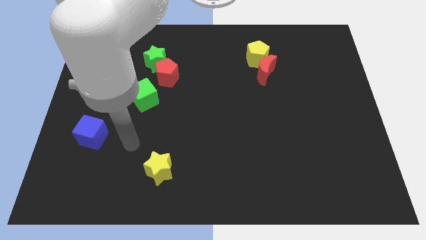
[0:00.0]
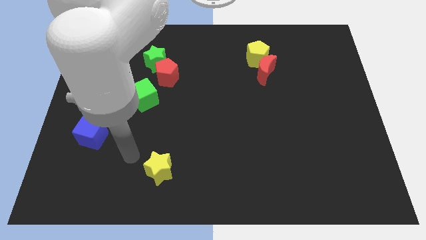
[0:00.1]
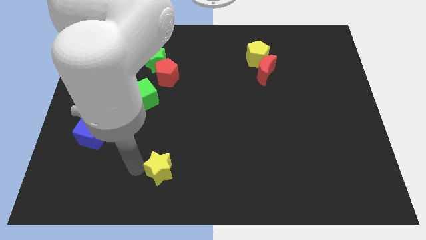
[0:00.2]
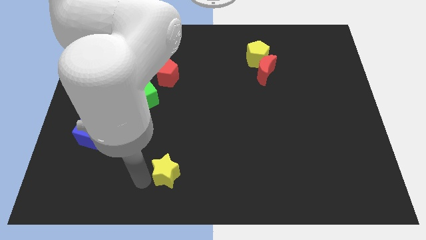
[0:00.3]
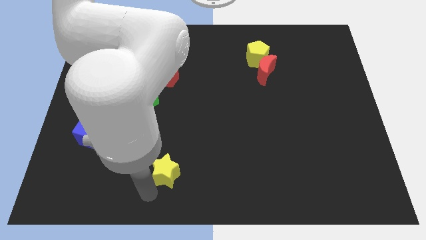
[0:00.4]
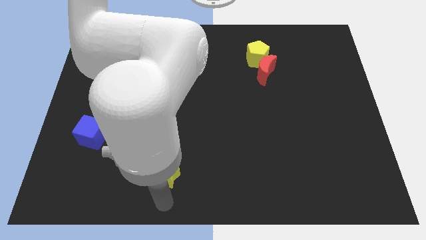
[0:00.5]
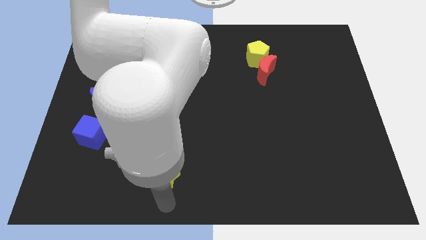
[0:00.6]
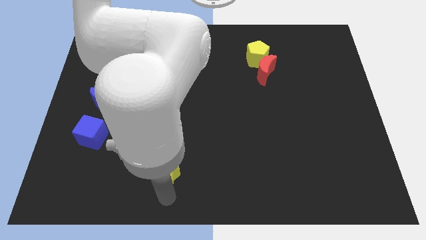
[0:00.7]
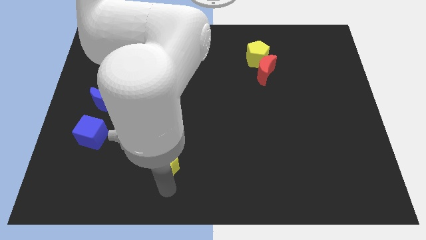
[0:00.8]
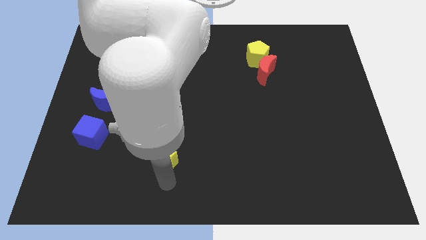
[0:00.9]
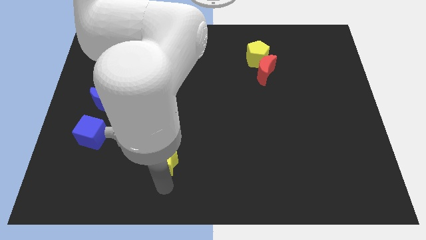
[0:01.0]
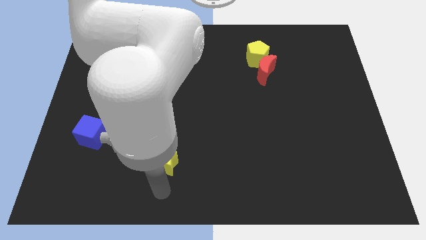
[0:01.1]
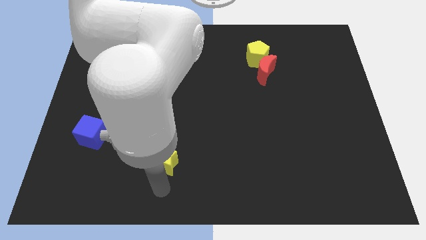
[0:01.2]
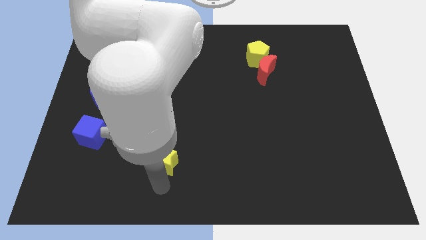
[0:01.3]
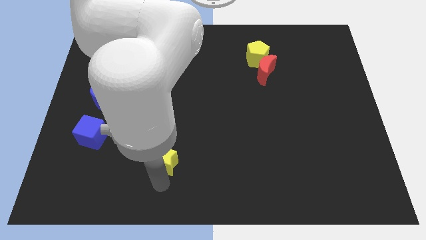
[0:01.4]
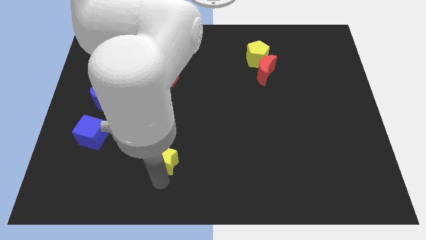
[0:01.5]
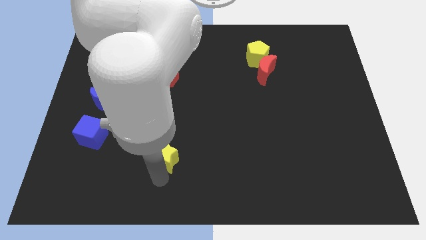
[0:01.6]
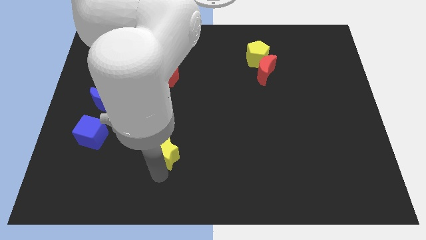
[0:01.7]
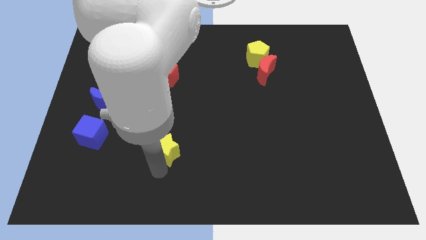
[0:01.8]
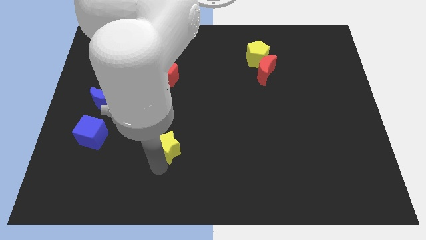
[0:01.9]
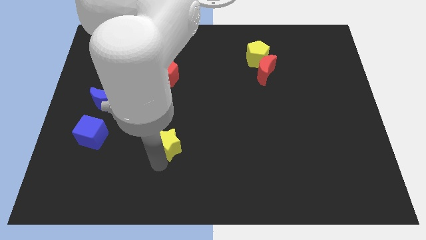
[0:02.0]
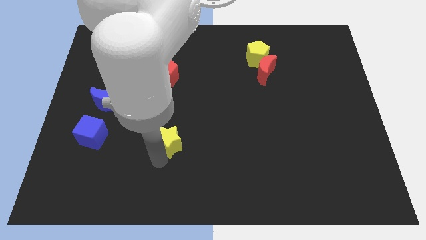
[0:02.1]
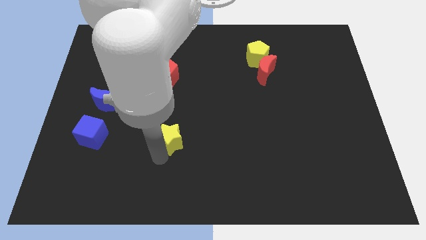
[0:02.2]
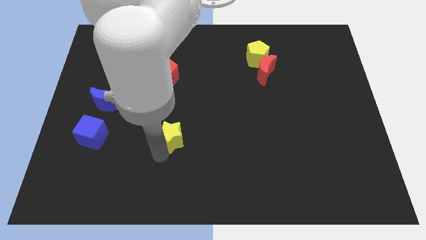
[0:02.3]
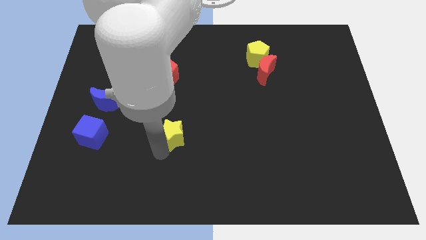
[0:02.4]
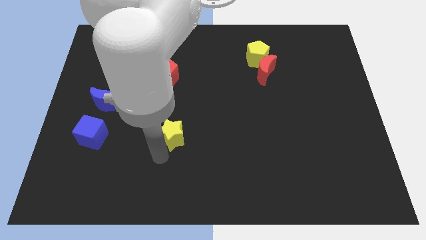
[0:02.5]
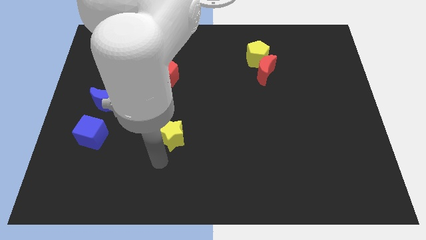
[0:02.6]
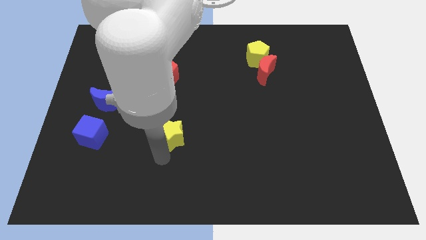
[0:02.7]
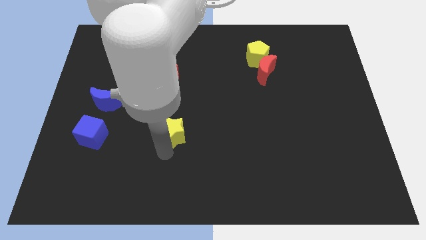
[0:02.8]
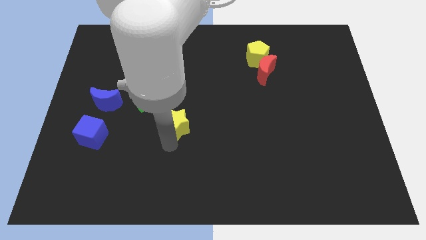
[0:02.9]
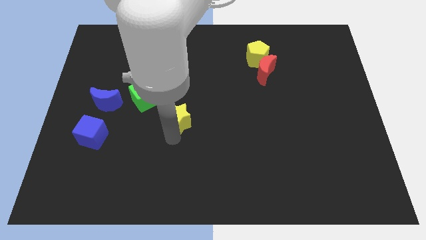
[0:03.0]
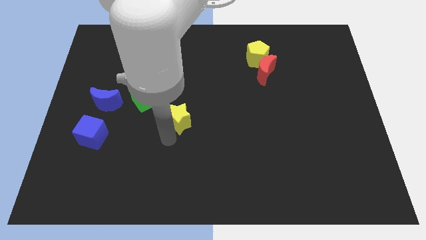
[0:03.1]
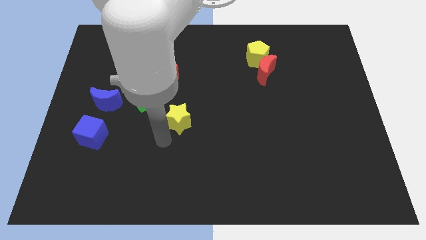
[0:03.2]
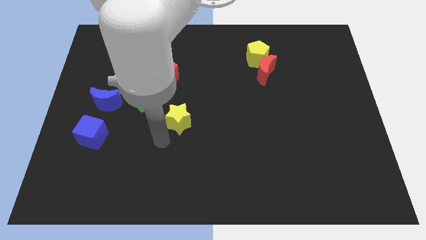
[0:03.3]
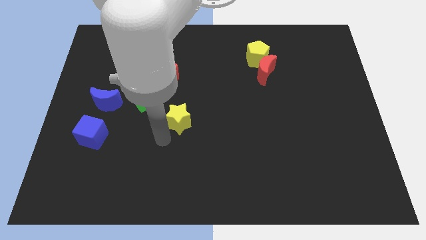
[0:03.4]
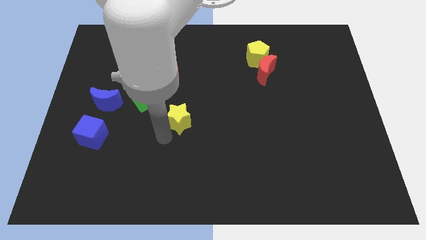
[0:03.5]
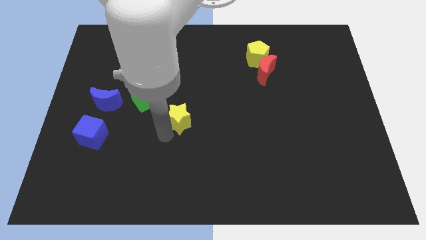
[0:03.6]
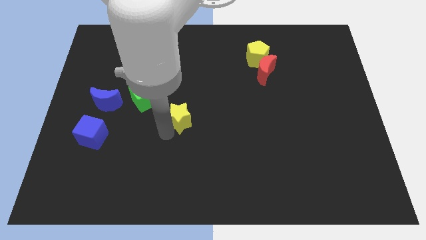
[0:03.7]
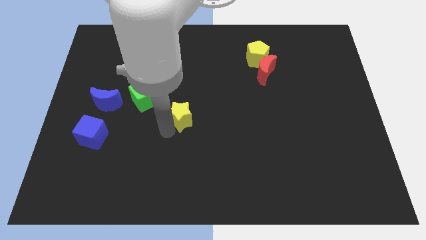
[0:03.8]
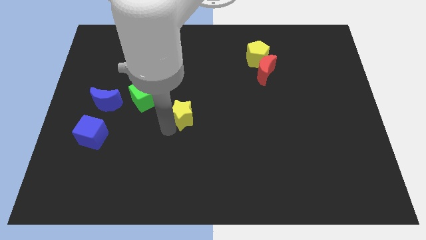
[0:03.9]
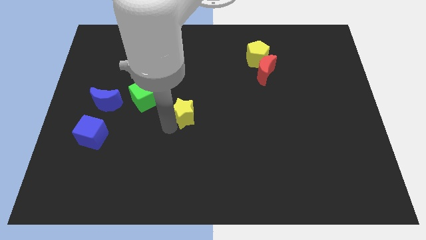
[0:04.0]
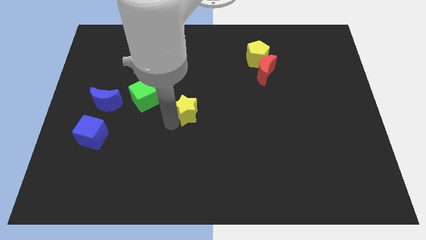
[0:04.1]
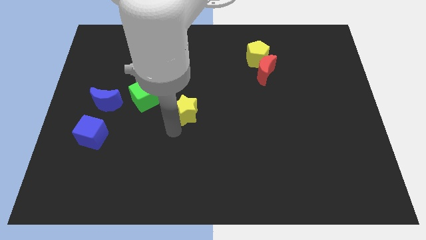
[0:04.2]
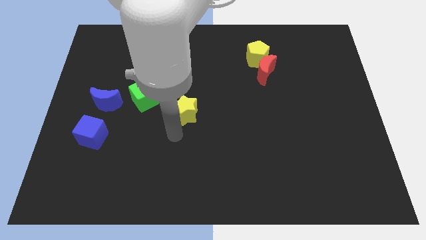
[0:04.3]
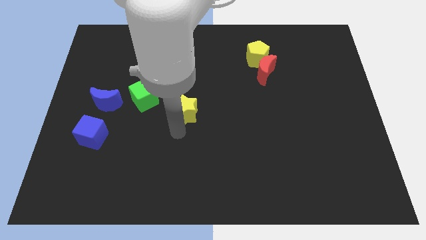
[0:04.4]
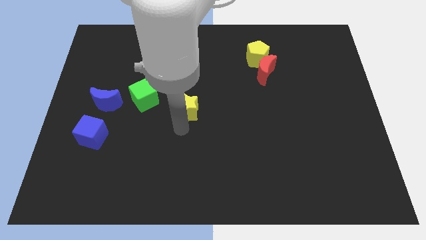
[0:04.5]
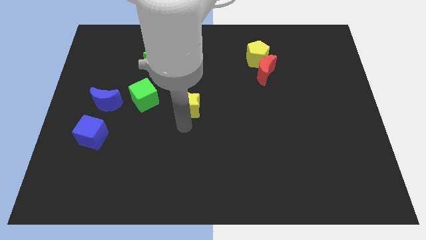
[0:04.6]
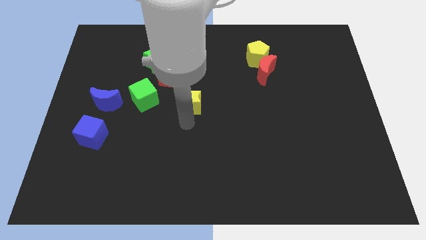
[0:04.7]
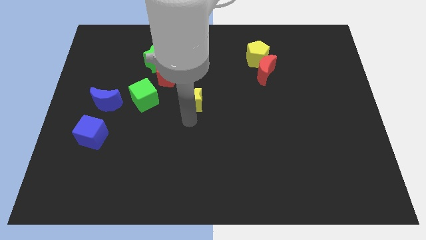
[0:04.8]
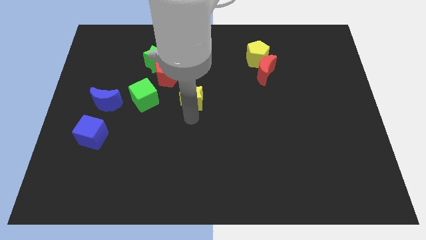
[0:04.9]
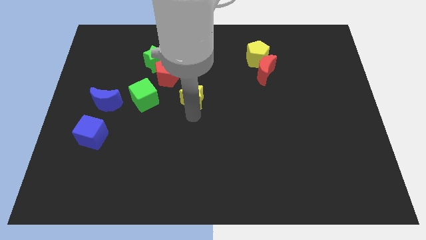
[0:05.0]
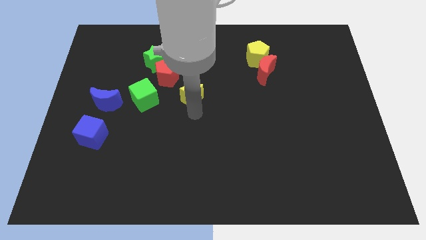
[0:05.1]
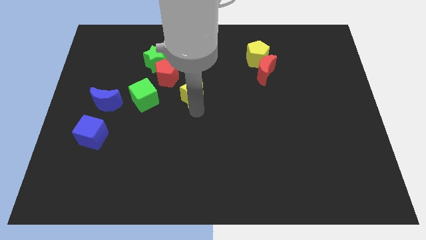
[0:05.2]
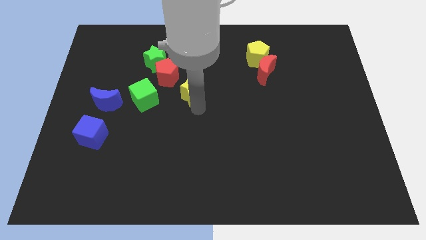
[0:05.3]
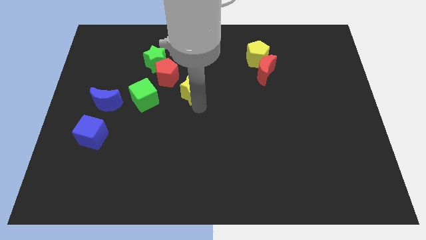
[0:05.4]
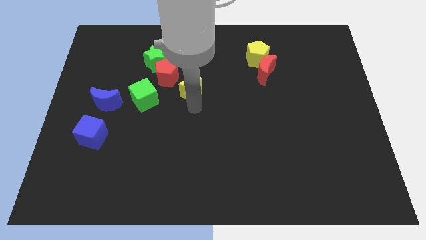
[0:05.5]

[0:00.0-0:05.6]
move the yellow star up

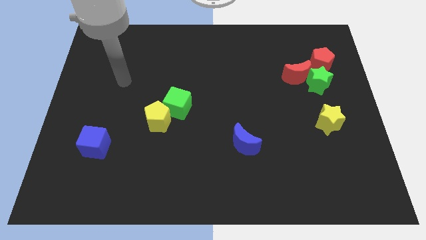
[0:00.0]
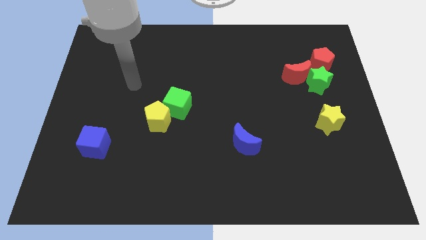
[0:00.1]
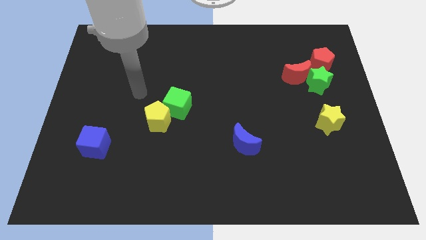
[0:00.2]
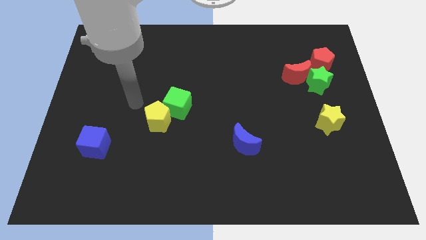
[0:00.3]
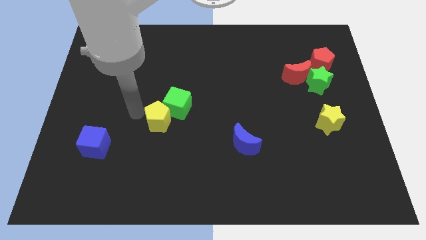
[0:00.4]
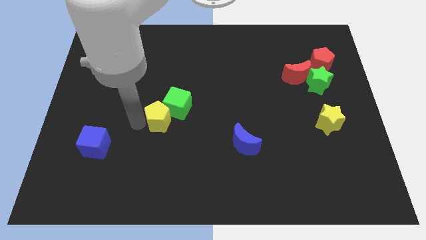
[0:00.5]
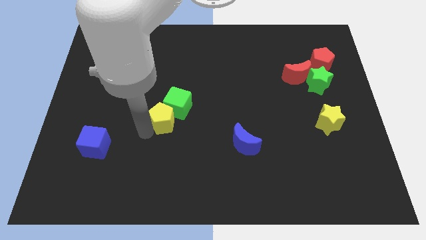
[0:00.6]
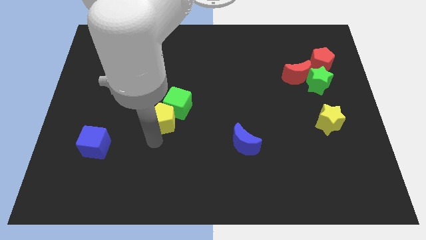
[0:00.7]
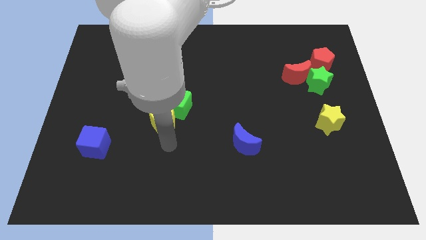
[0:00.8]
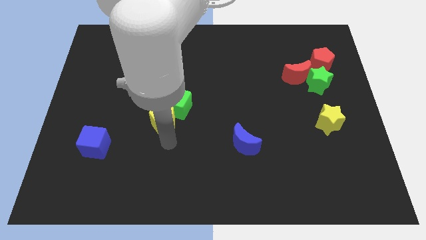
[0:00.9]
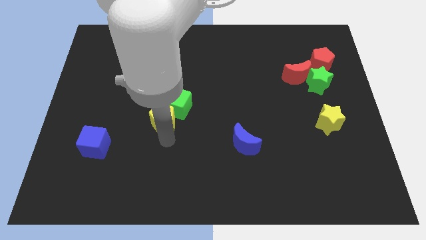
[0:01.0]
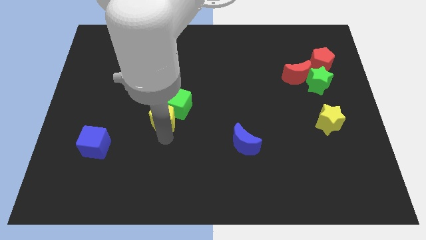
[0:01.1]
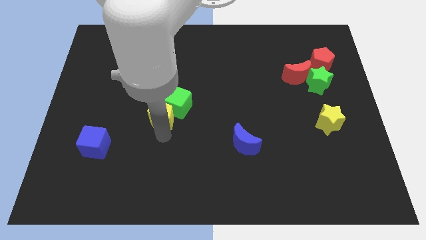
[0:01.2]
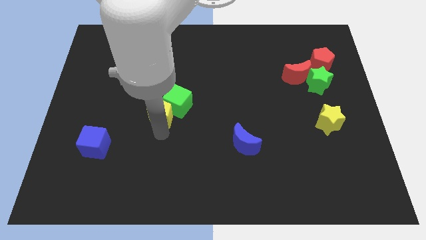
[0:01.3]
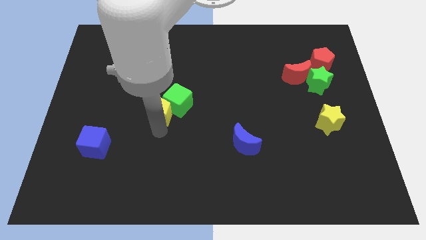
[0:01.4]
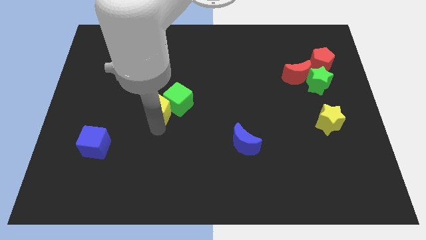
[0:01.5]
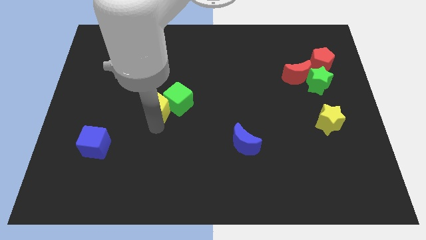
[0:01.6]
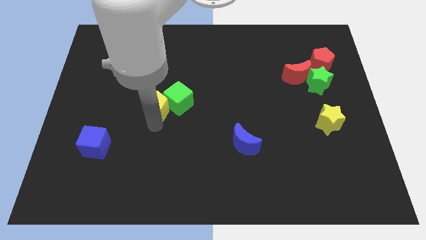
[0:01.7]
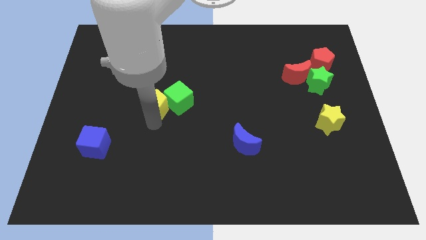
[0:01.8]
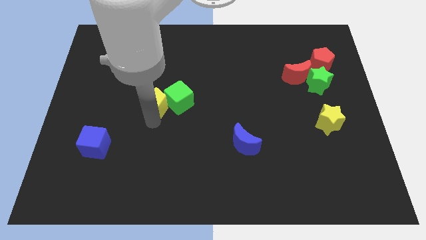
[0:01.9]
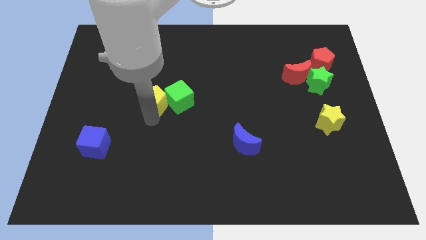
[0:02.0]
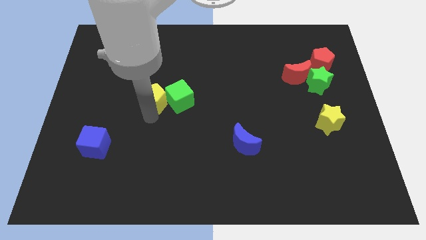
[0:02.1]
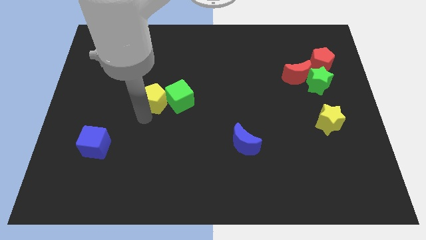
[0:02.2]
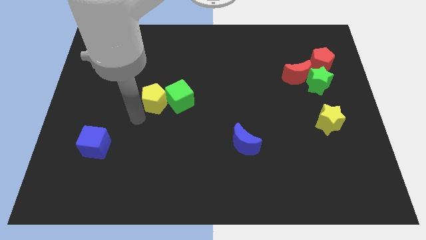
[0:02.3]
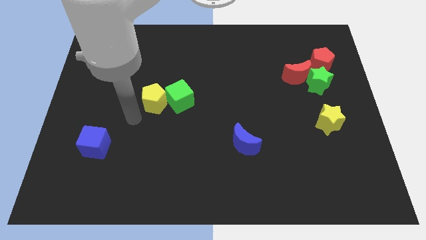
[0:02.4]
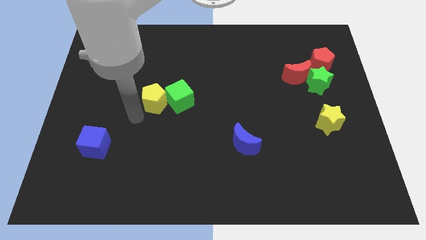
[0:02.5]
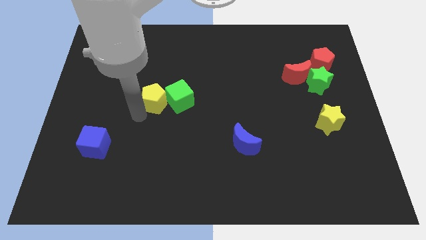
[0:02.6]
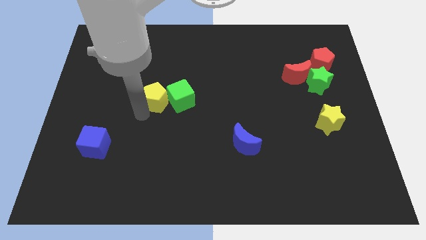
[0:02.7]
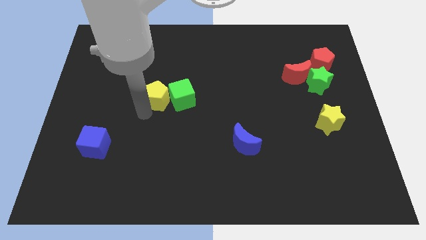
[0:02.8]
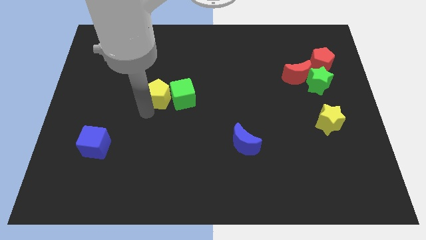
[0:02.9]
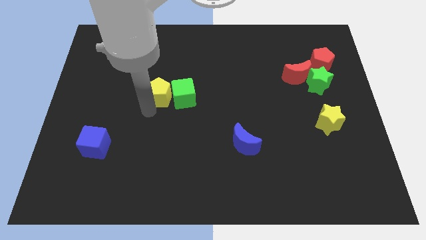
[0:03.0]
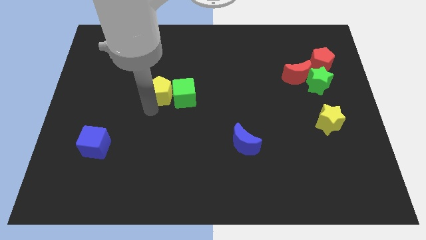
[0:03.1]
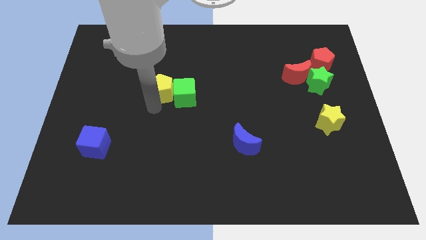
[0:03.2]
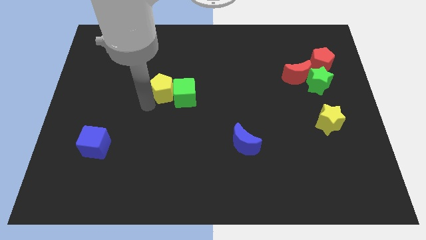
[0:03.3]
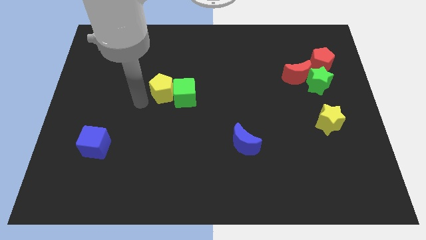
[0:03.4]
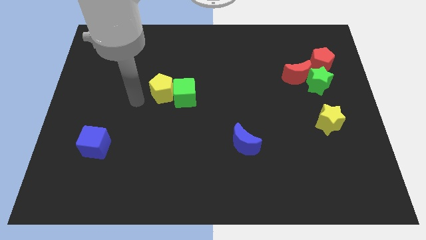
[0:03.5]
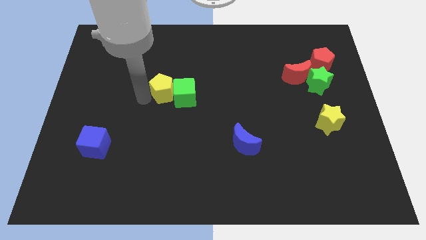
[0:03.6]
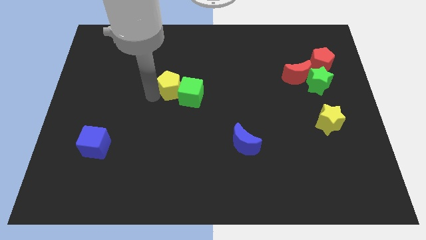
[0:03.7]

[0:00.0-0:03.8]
slightly move the yellow pentagon up and to the right
